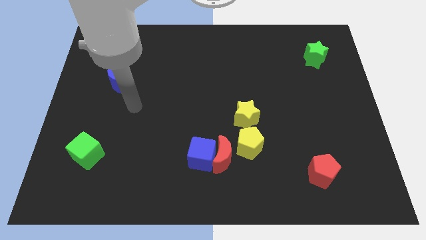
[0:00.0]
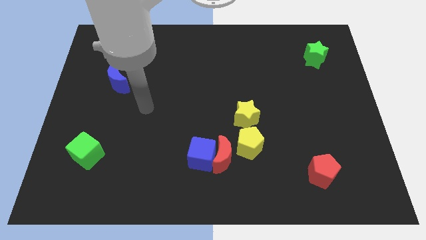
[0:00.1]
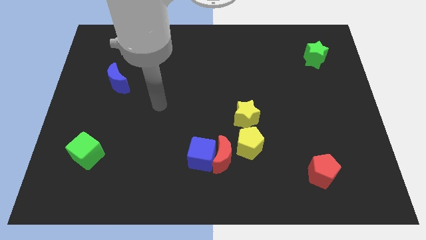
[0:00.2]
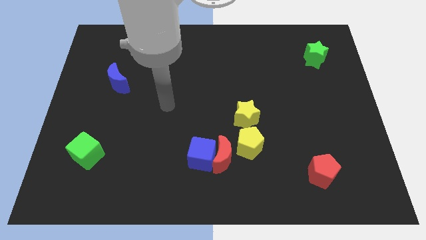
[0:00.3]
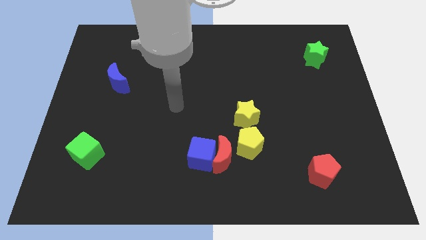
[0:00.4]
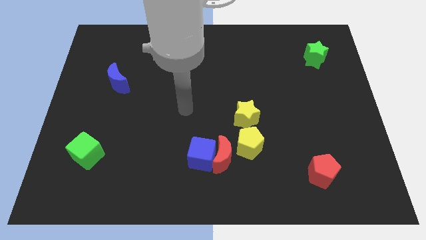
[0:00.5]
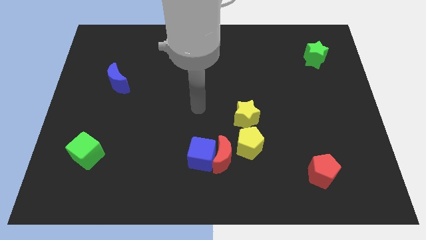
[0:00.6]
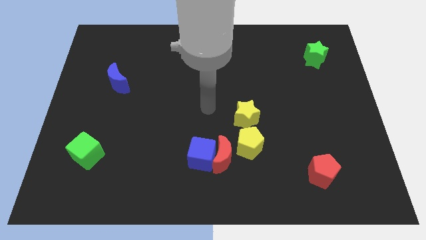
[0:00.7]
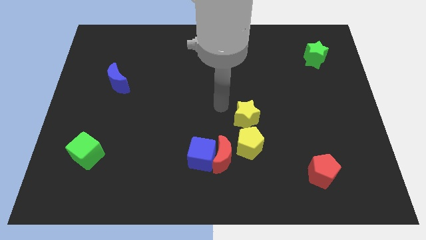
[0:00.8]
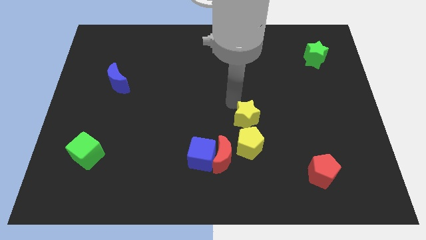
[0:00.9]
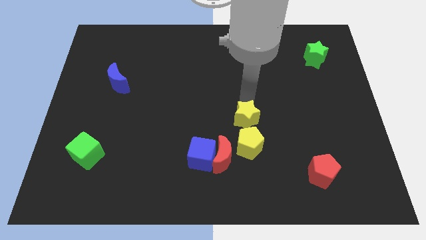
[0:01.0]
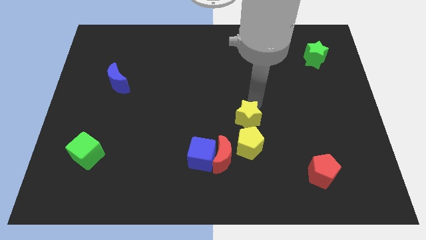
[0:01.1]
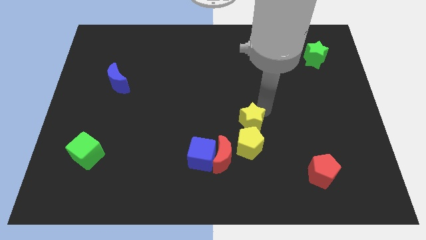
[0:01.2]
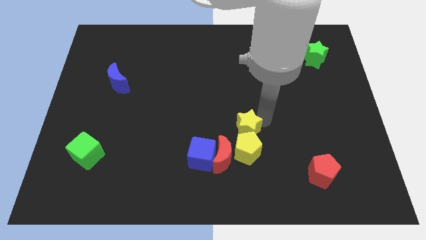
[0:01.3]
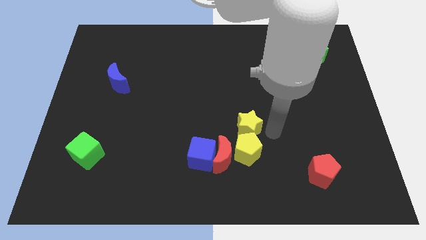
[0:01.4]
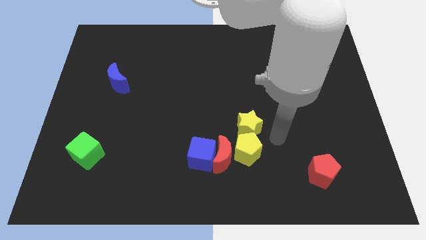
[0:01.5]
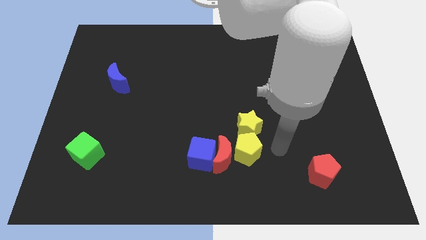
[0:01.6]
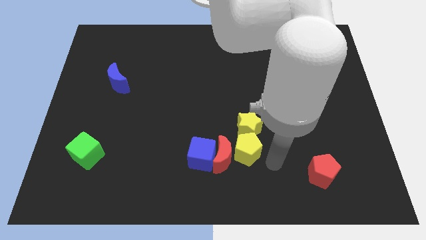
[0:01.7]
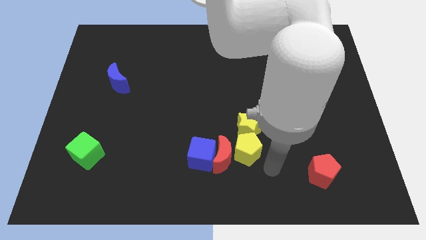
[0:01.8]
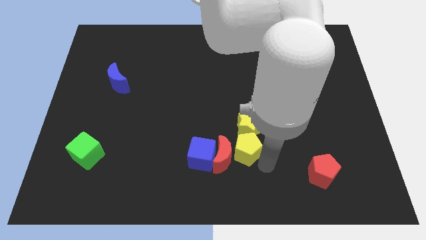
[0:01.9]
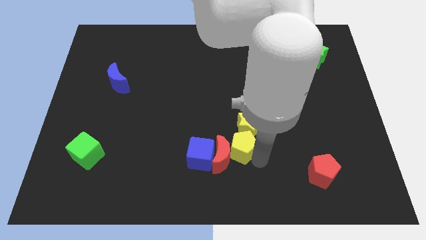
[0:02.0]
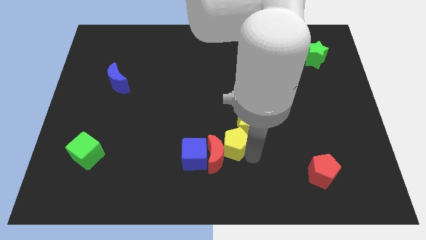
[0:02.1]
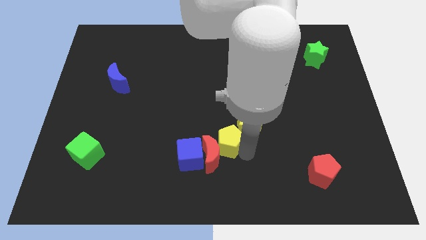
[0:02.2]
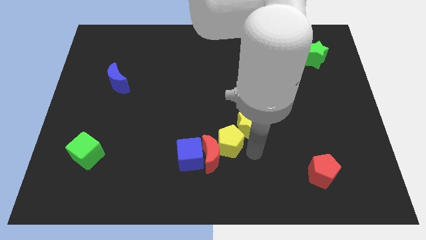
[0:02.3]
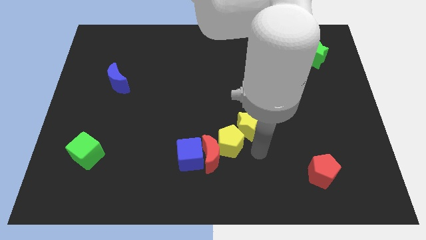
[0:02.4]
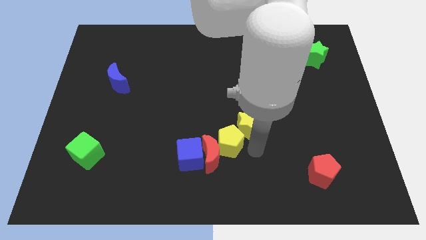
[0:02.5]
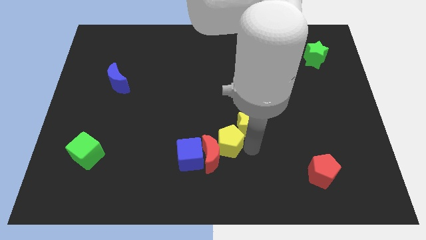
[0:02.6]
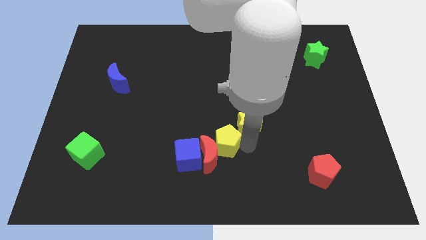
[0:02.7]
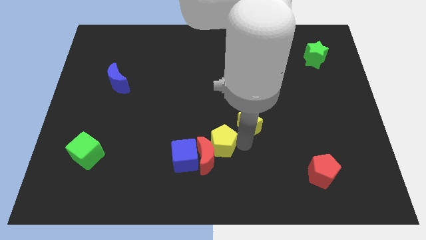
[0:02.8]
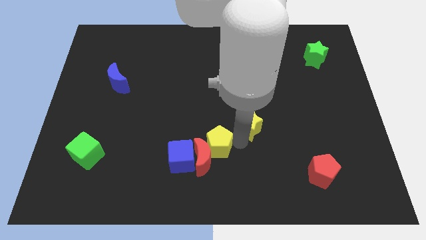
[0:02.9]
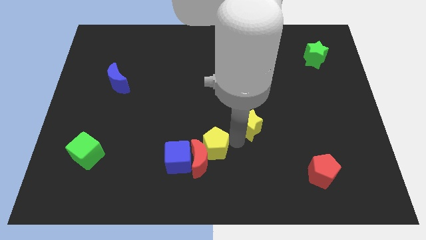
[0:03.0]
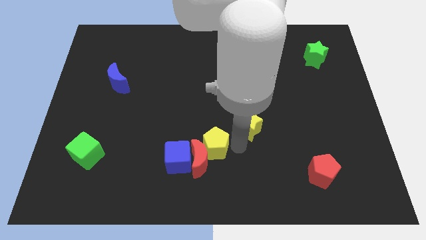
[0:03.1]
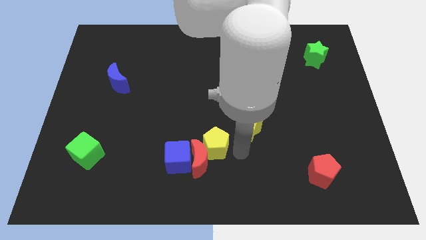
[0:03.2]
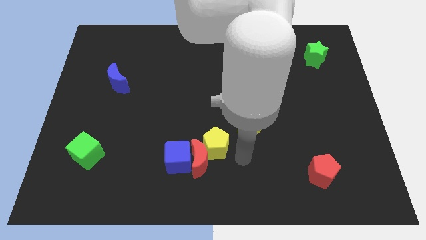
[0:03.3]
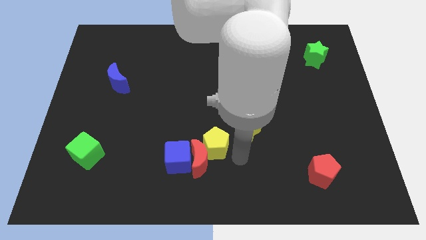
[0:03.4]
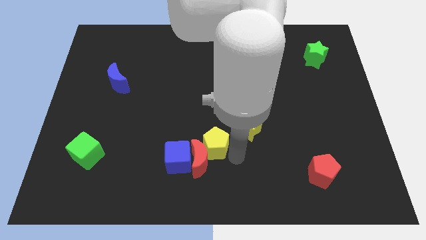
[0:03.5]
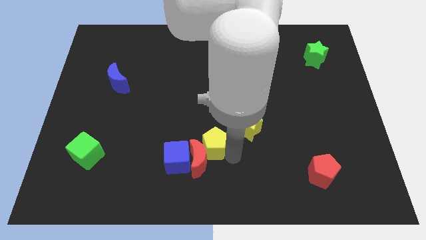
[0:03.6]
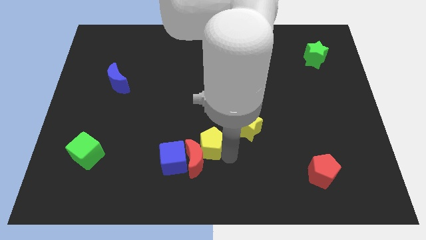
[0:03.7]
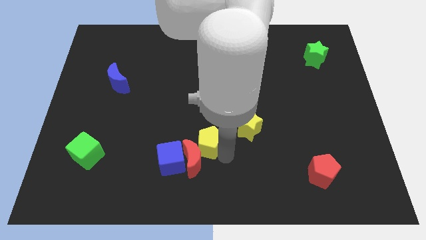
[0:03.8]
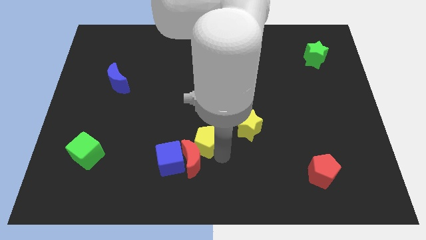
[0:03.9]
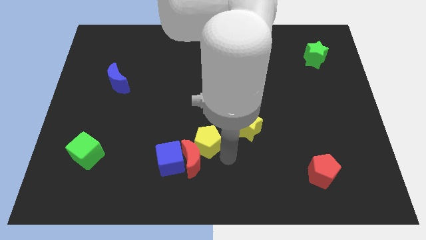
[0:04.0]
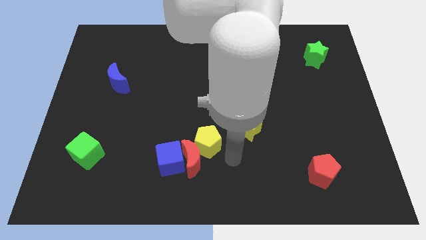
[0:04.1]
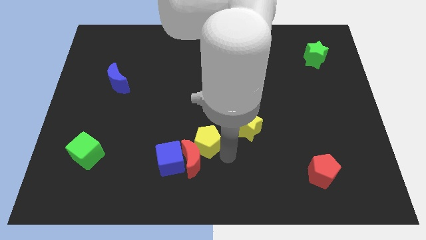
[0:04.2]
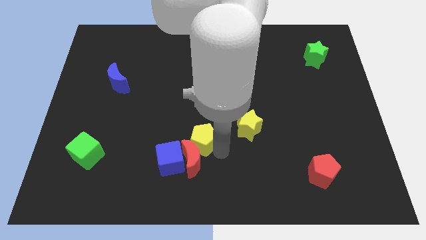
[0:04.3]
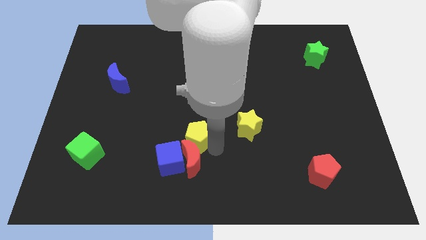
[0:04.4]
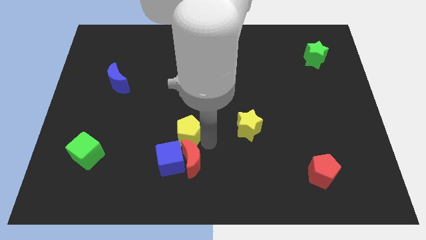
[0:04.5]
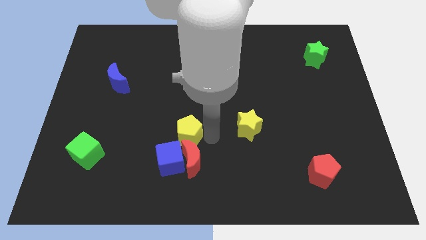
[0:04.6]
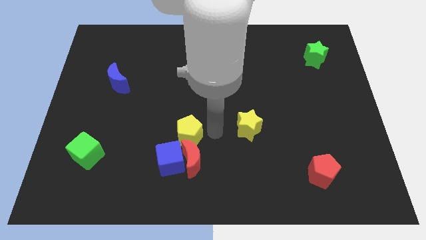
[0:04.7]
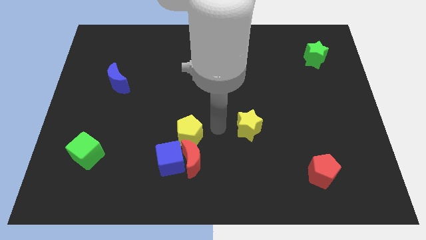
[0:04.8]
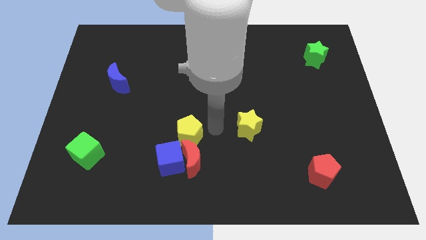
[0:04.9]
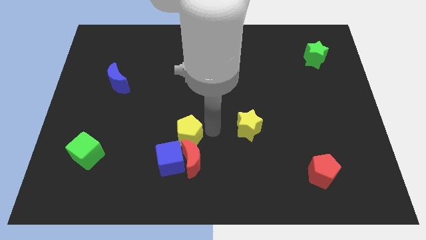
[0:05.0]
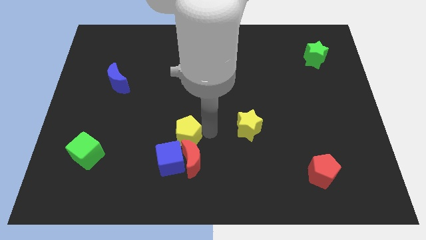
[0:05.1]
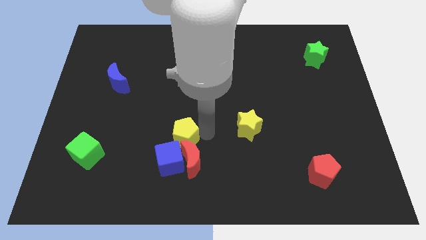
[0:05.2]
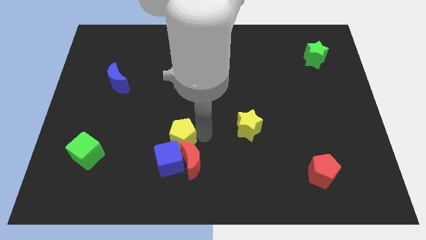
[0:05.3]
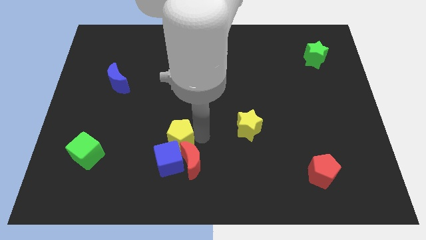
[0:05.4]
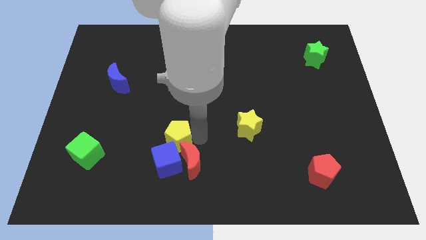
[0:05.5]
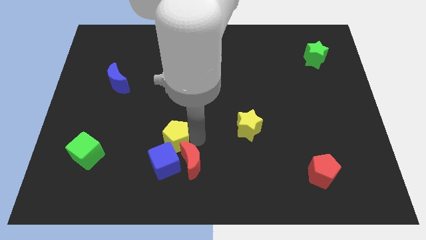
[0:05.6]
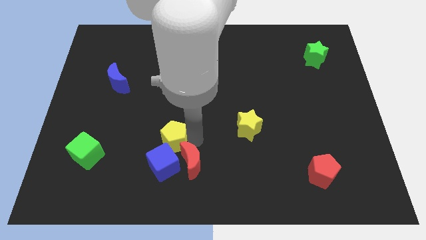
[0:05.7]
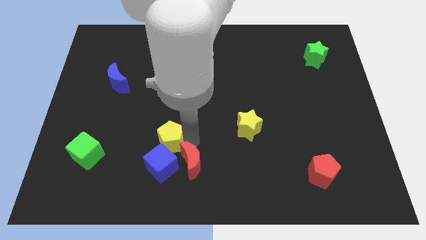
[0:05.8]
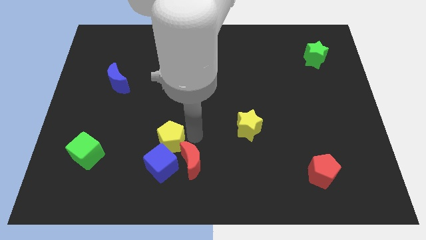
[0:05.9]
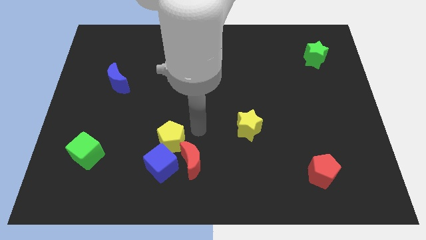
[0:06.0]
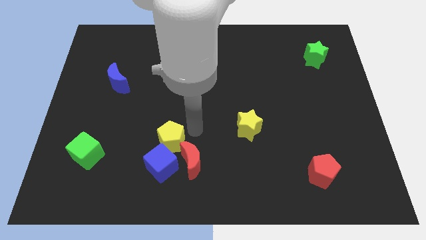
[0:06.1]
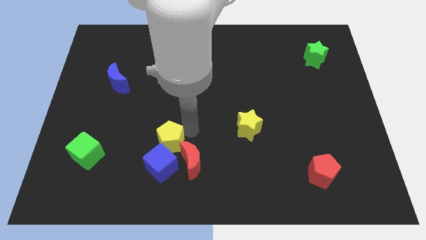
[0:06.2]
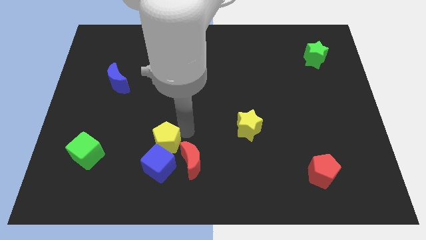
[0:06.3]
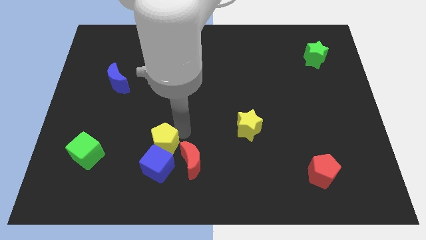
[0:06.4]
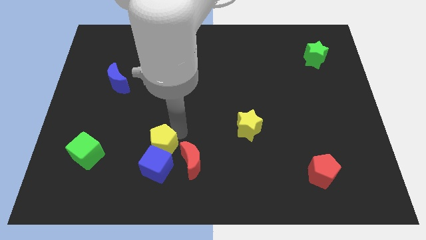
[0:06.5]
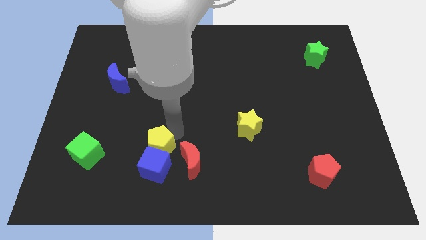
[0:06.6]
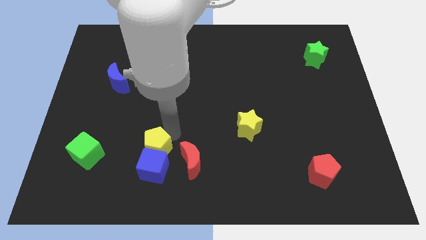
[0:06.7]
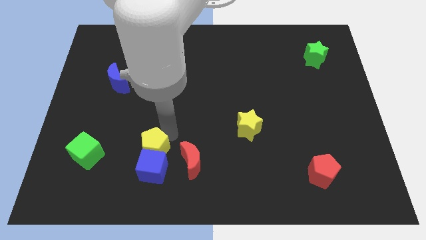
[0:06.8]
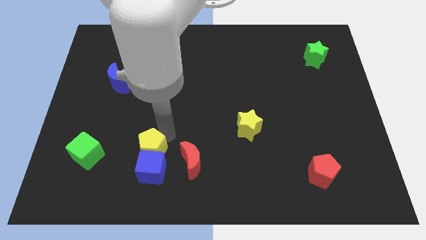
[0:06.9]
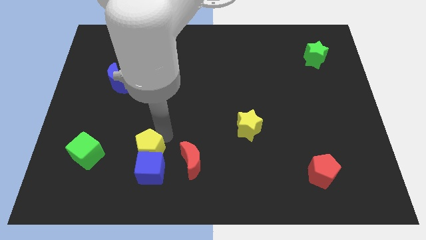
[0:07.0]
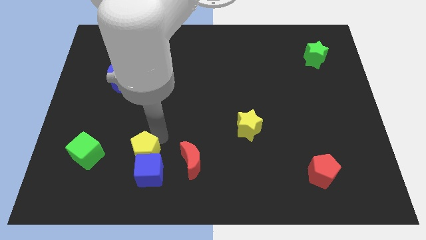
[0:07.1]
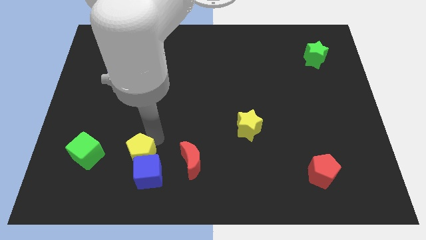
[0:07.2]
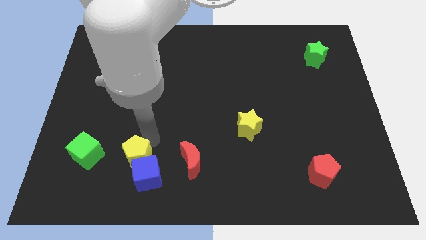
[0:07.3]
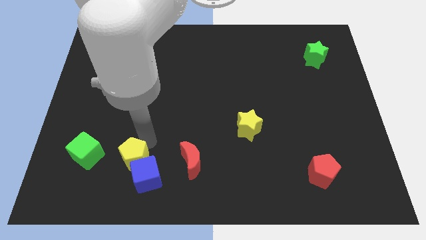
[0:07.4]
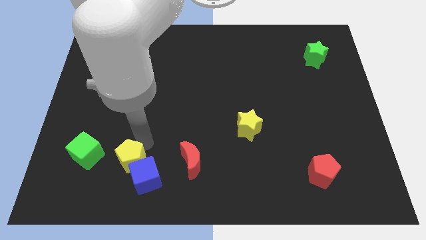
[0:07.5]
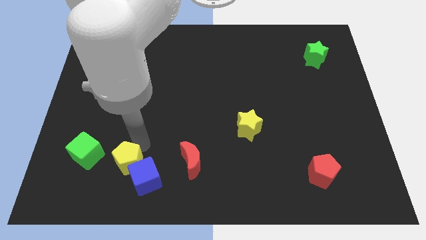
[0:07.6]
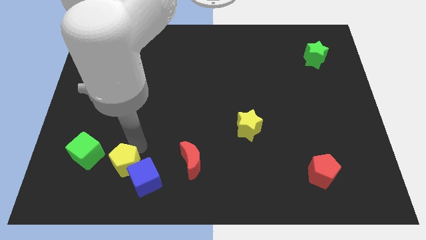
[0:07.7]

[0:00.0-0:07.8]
move the yellow pentagon diagonally down and to the right of the green cube
